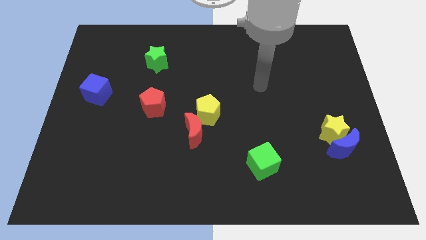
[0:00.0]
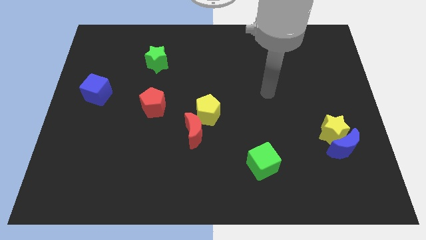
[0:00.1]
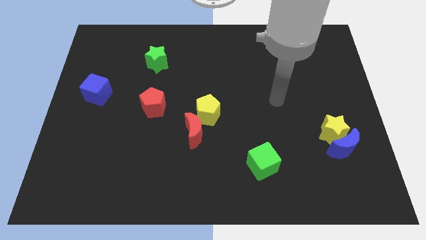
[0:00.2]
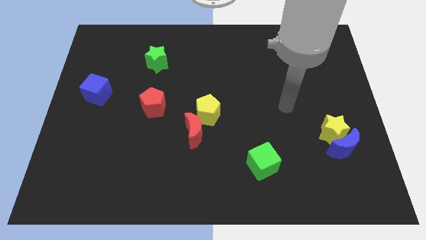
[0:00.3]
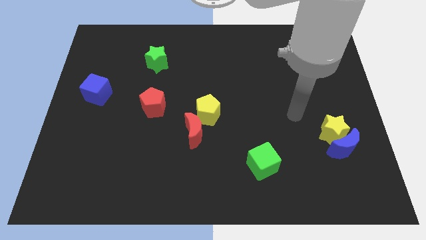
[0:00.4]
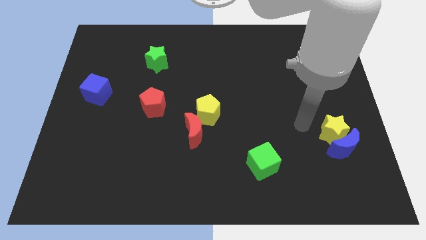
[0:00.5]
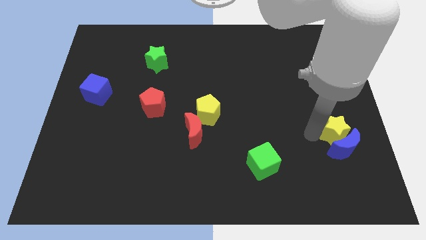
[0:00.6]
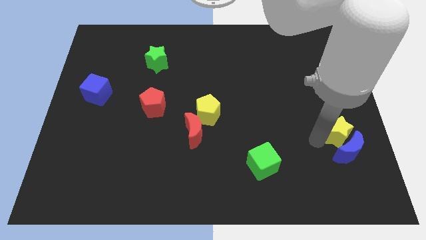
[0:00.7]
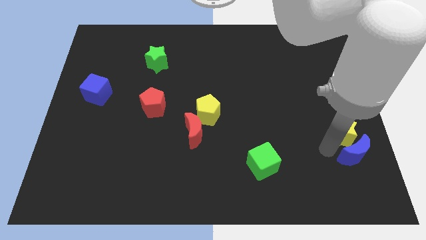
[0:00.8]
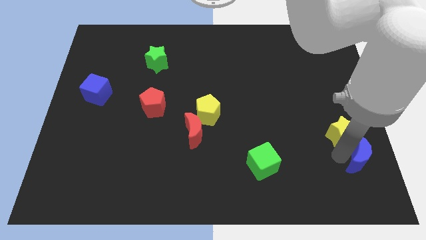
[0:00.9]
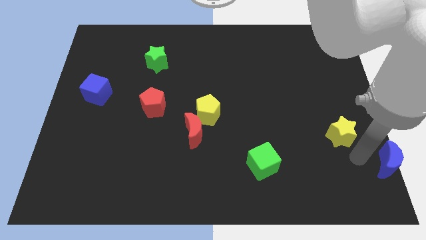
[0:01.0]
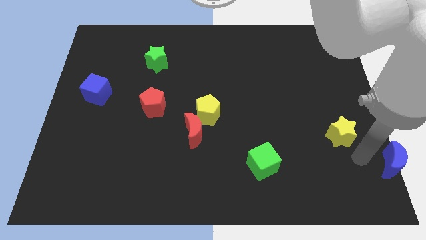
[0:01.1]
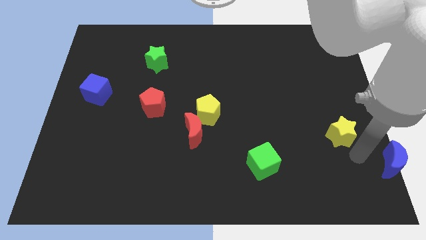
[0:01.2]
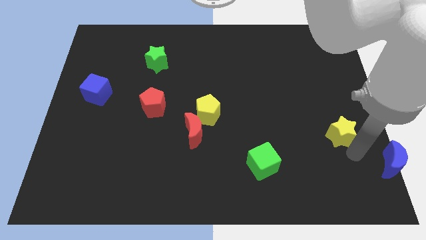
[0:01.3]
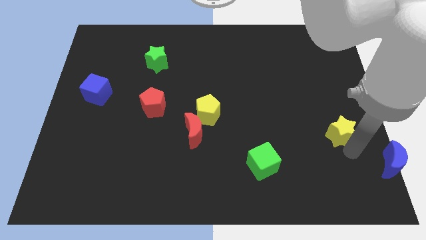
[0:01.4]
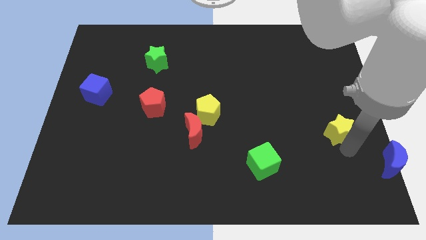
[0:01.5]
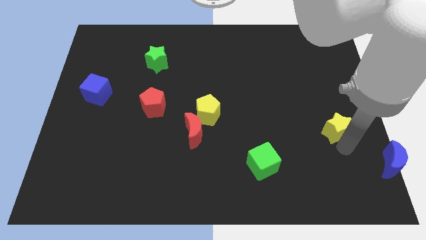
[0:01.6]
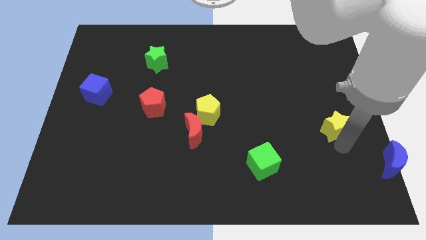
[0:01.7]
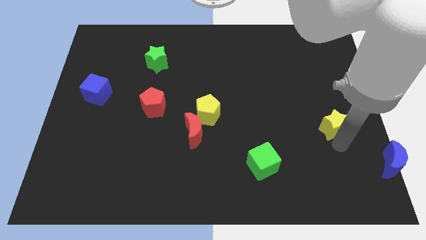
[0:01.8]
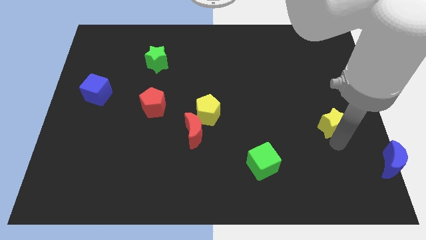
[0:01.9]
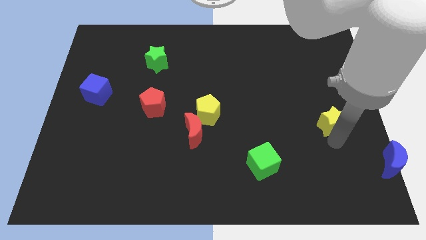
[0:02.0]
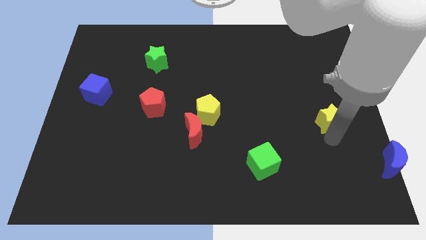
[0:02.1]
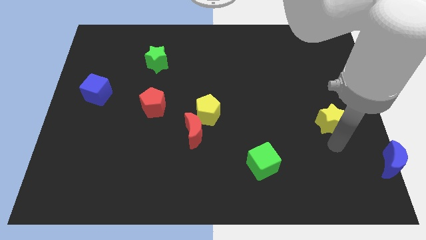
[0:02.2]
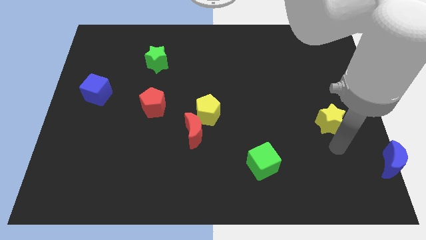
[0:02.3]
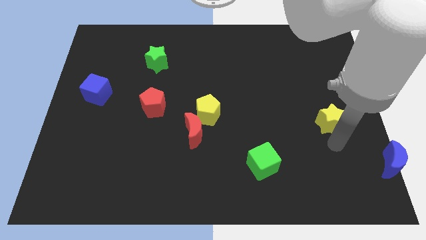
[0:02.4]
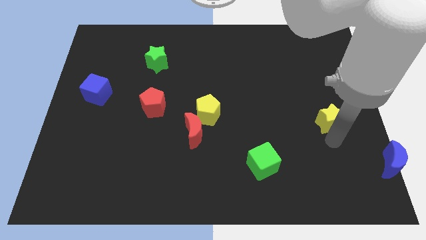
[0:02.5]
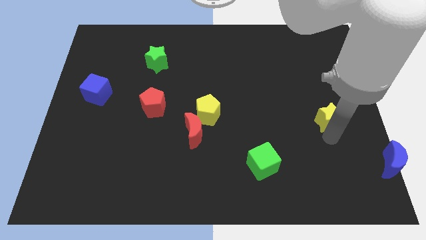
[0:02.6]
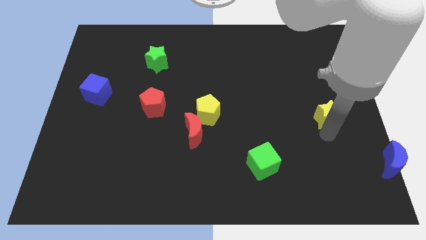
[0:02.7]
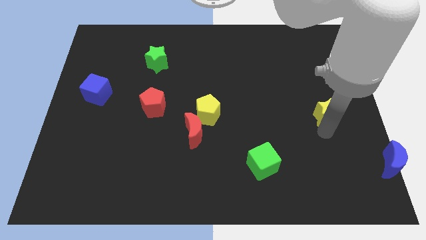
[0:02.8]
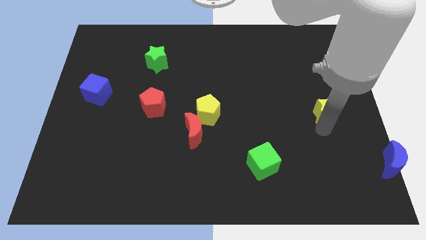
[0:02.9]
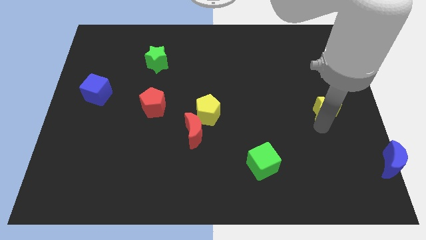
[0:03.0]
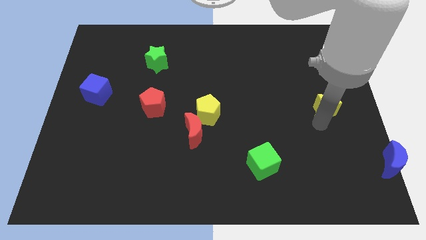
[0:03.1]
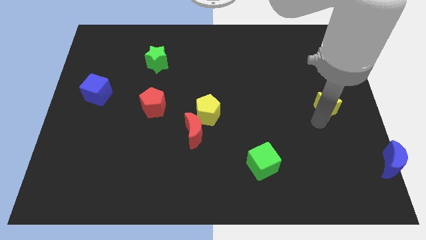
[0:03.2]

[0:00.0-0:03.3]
move the yellow star up slightly

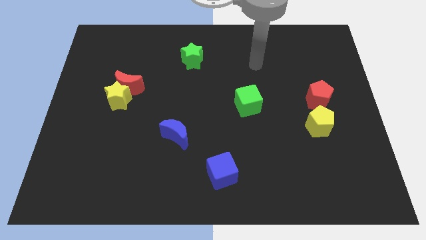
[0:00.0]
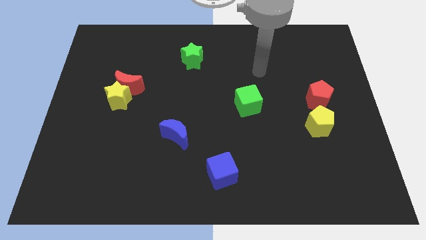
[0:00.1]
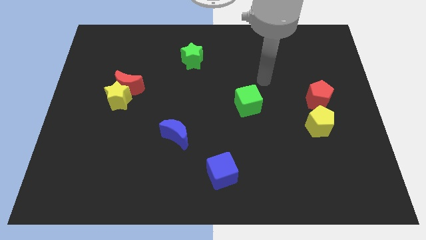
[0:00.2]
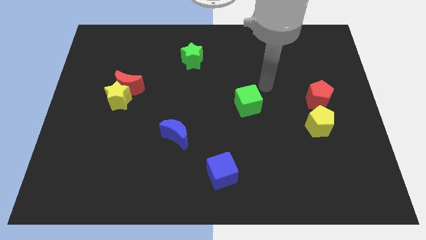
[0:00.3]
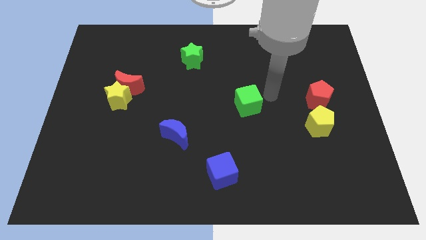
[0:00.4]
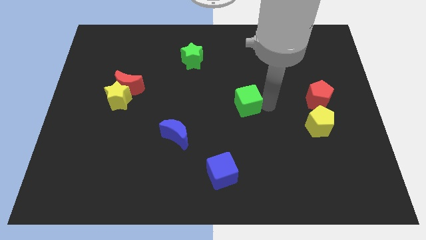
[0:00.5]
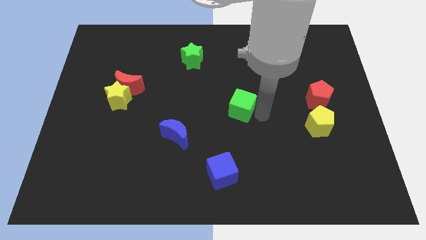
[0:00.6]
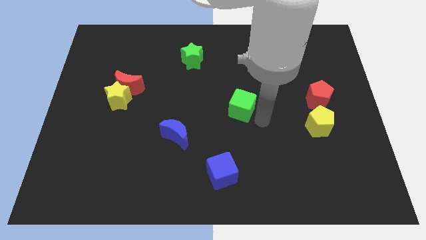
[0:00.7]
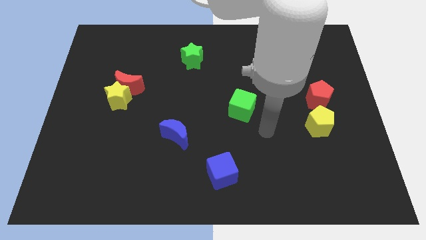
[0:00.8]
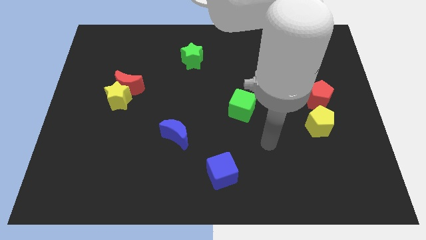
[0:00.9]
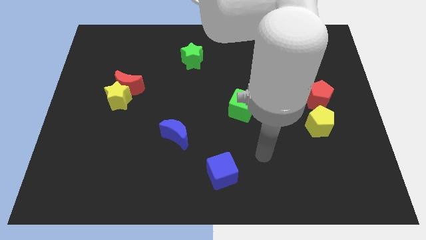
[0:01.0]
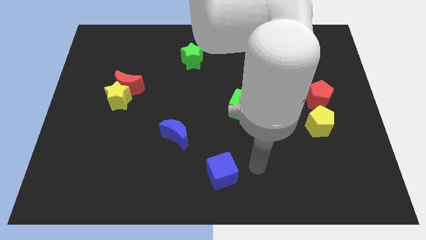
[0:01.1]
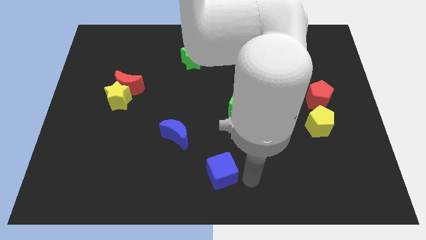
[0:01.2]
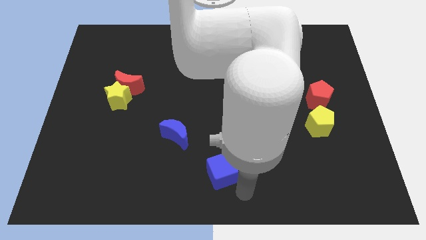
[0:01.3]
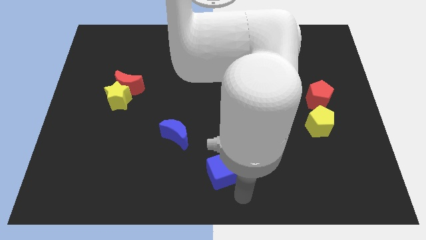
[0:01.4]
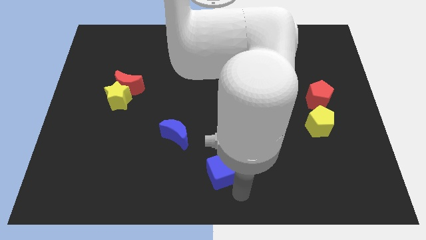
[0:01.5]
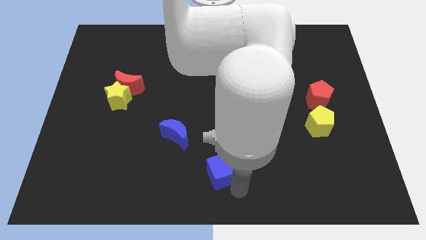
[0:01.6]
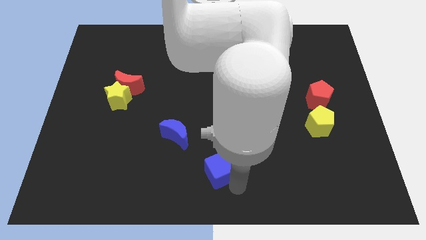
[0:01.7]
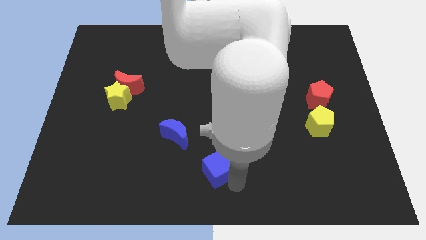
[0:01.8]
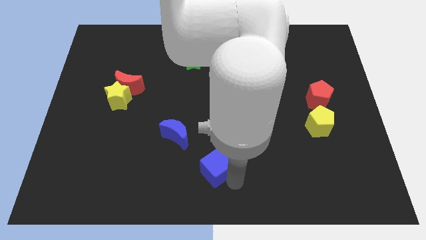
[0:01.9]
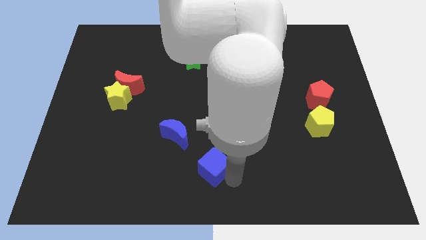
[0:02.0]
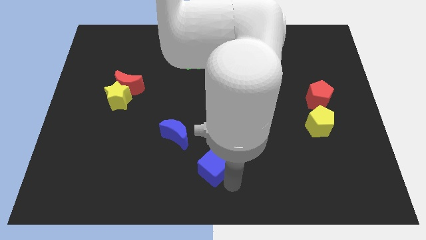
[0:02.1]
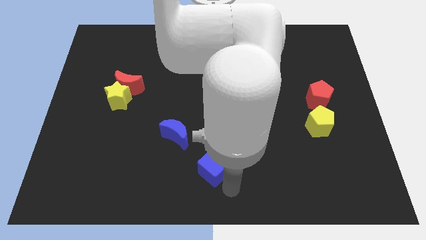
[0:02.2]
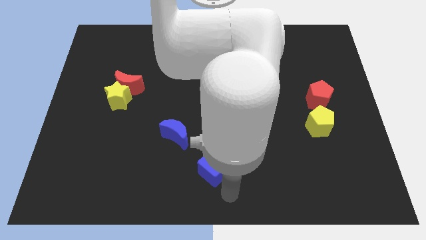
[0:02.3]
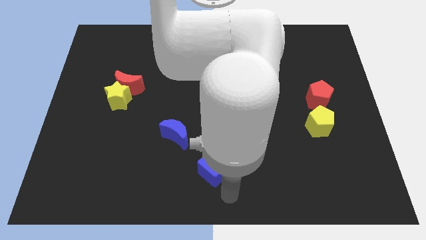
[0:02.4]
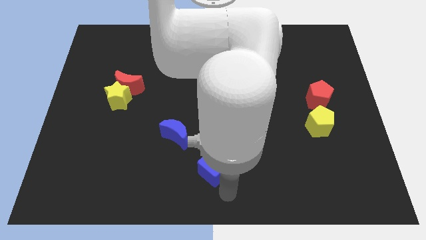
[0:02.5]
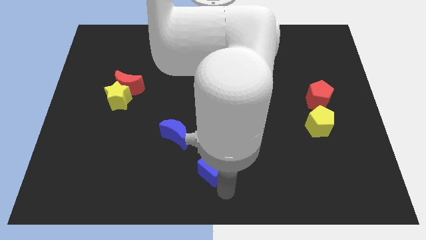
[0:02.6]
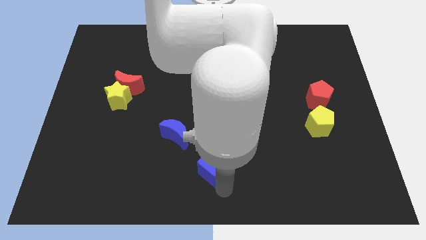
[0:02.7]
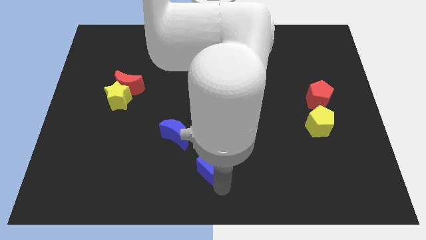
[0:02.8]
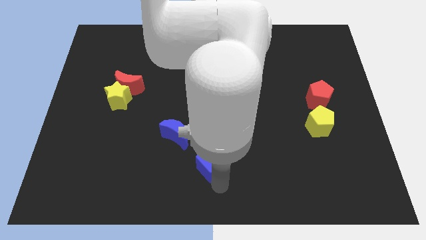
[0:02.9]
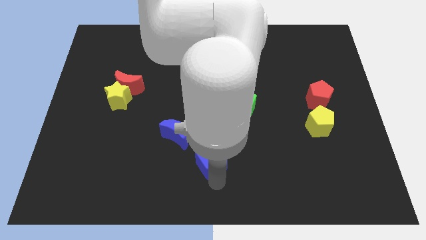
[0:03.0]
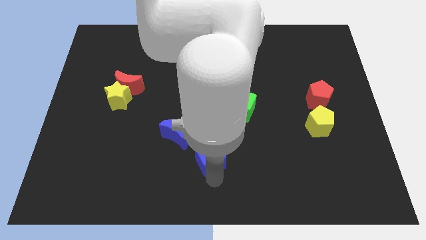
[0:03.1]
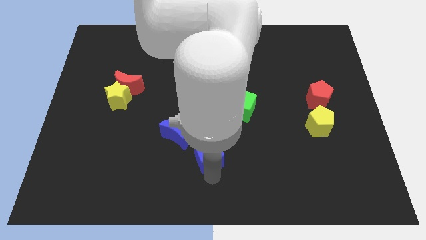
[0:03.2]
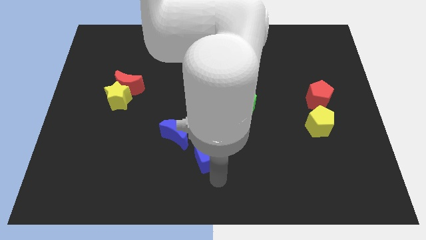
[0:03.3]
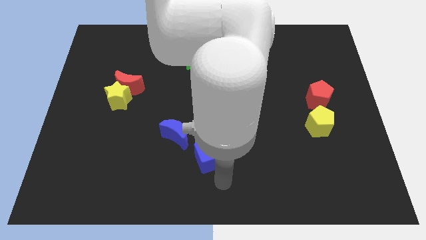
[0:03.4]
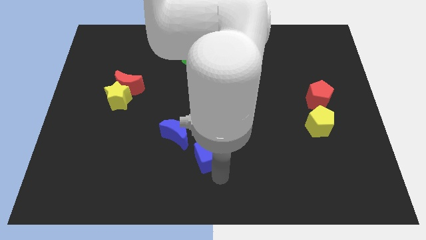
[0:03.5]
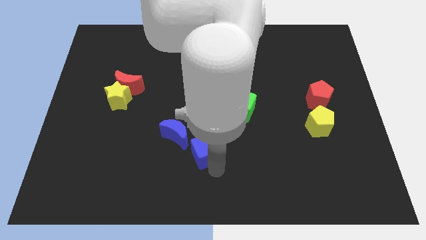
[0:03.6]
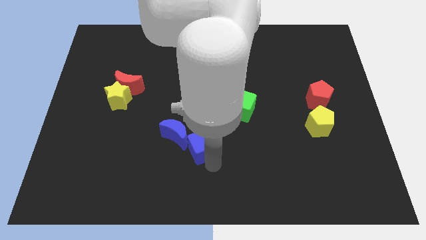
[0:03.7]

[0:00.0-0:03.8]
slightly move the blue cube upwards and to the left

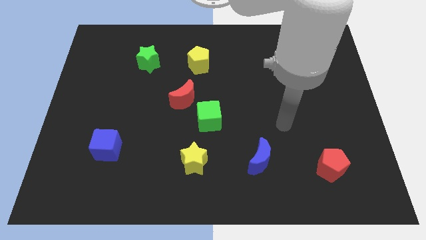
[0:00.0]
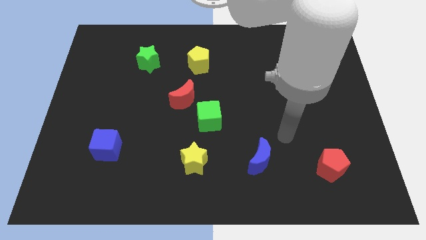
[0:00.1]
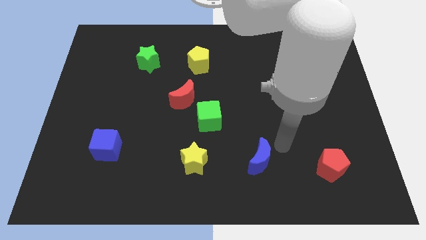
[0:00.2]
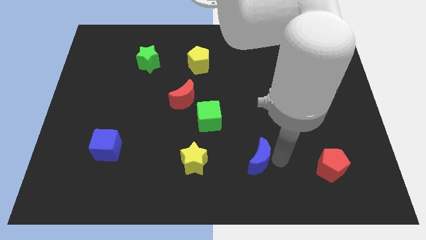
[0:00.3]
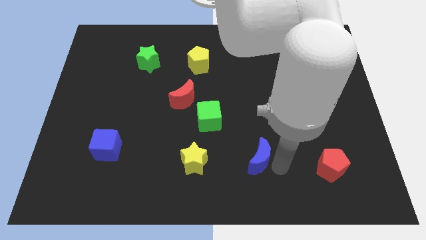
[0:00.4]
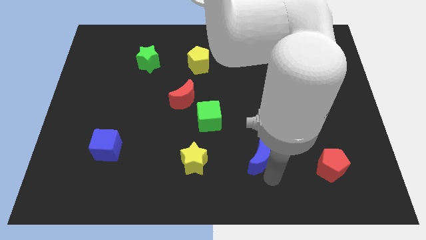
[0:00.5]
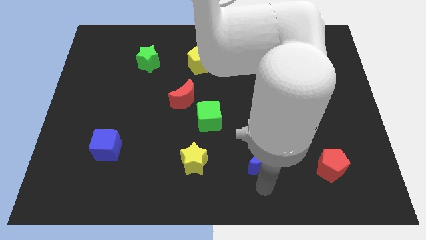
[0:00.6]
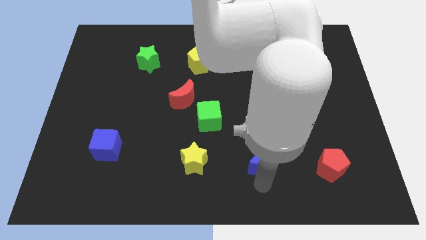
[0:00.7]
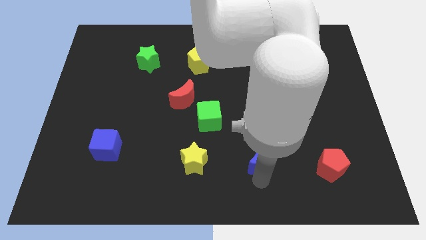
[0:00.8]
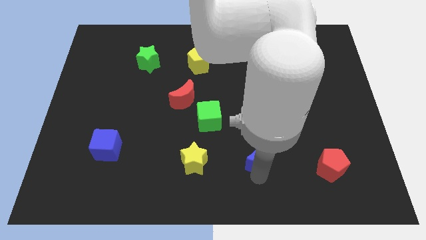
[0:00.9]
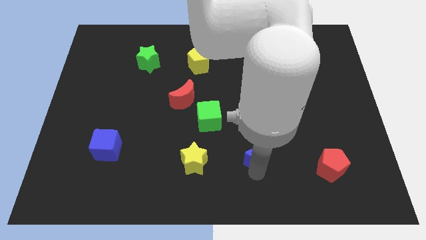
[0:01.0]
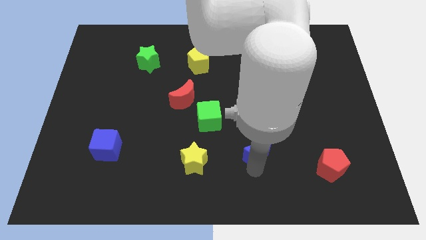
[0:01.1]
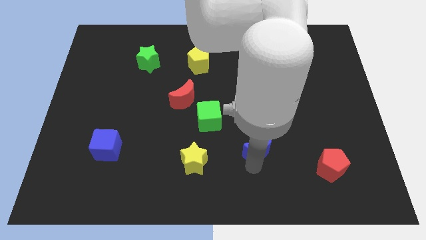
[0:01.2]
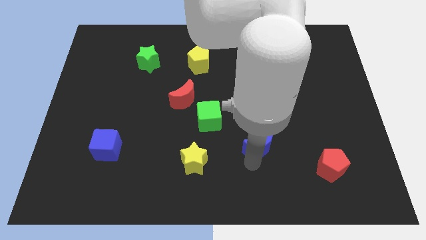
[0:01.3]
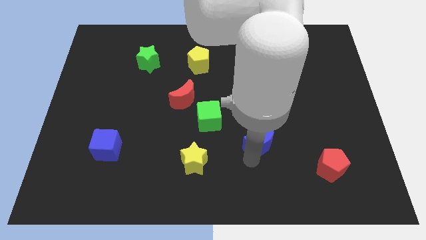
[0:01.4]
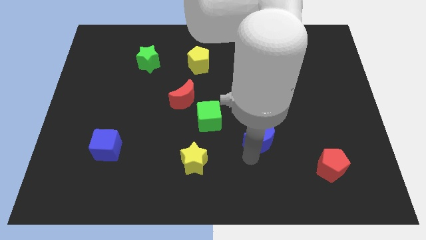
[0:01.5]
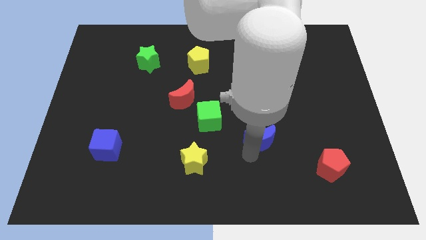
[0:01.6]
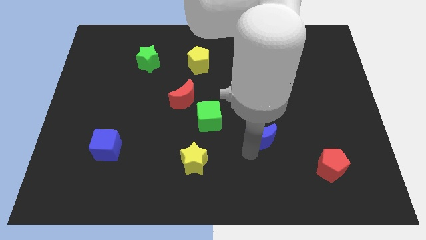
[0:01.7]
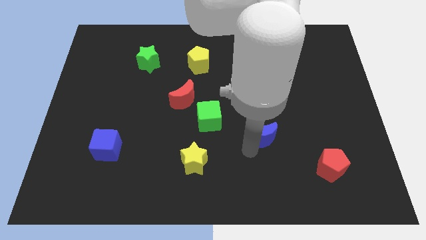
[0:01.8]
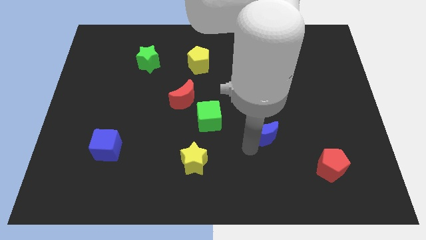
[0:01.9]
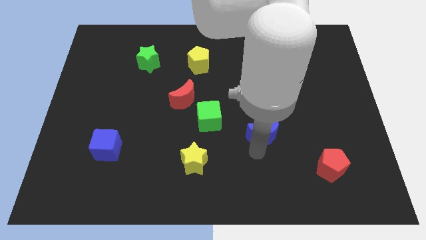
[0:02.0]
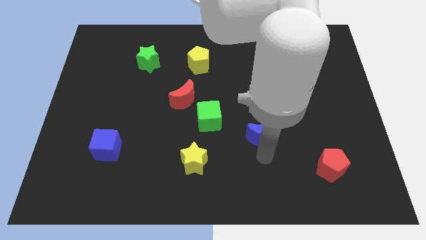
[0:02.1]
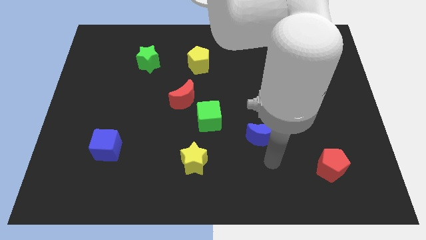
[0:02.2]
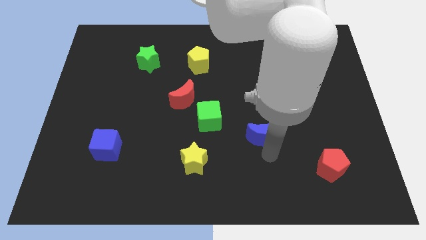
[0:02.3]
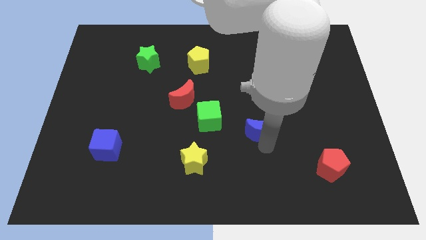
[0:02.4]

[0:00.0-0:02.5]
move the blue moon up a little bit
